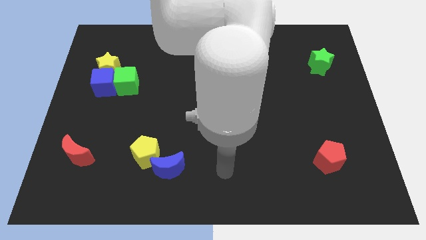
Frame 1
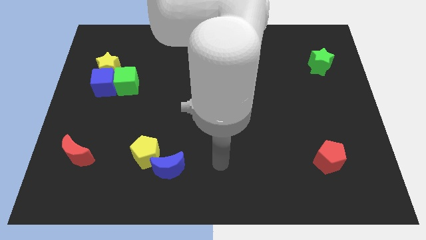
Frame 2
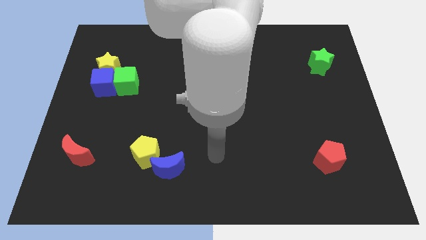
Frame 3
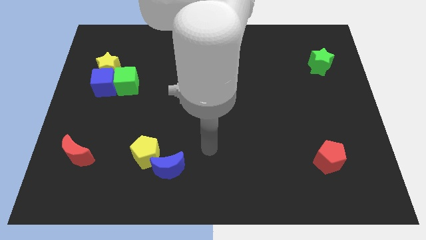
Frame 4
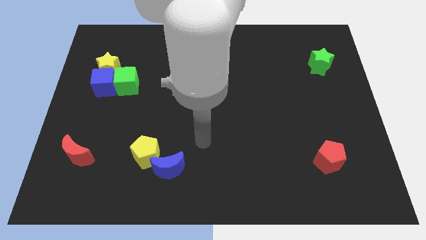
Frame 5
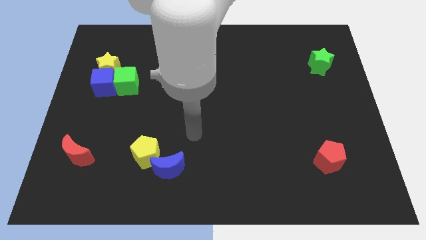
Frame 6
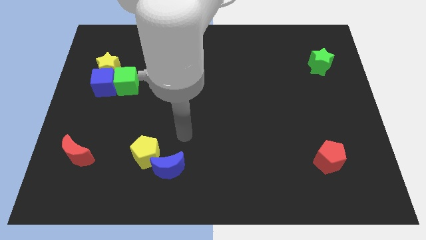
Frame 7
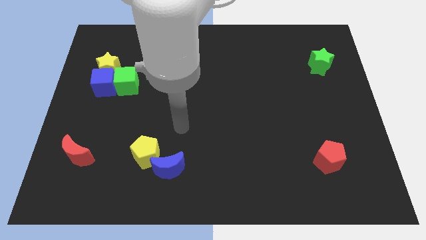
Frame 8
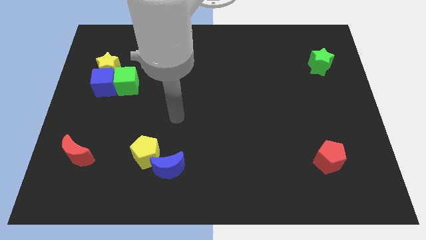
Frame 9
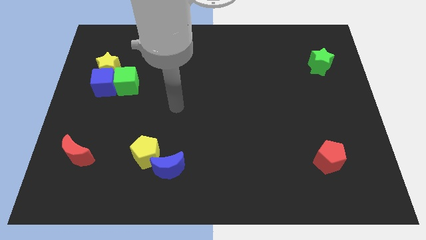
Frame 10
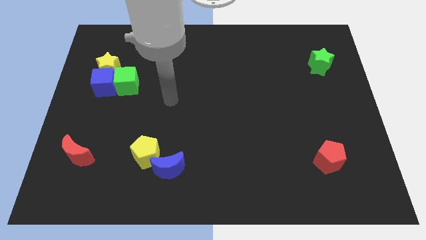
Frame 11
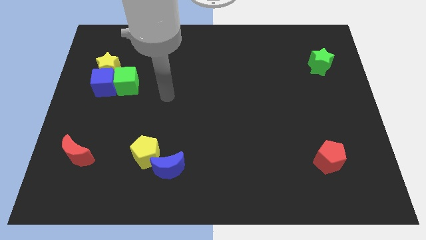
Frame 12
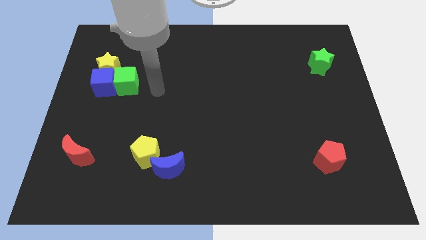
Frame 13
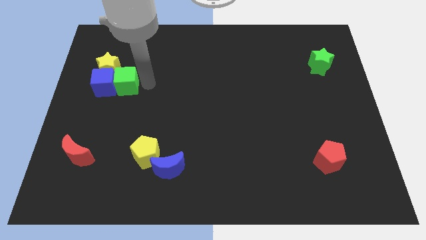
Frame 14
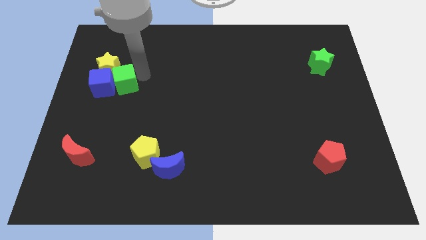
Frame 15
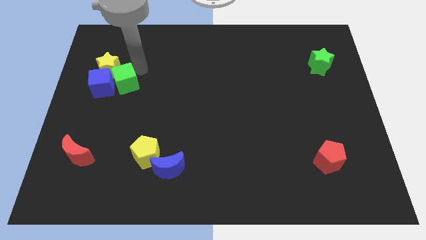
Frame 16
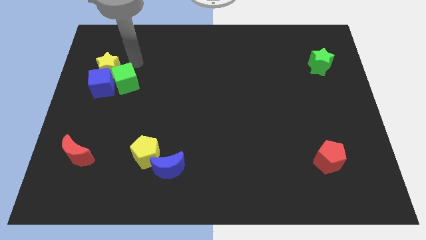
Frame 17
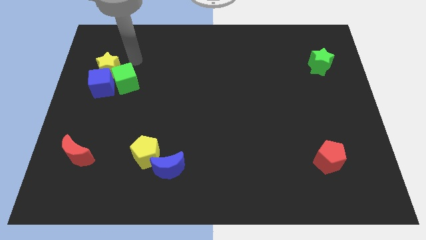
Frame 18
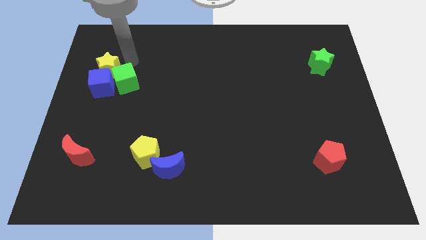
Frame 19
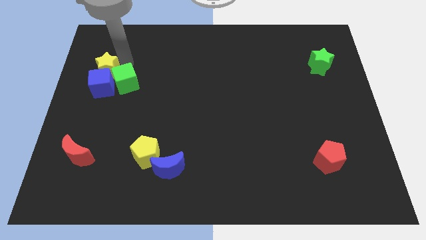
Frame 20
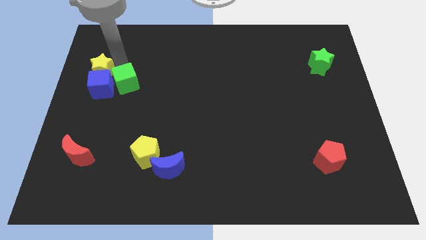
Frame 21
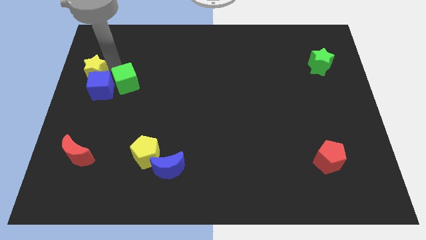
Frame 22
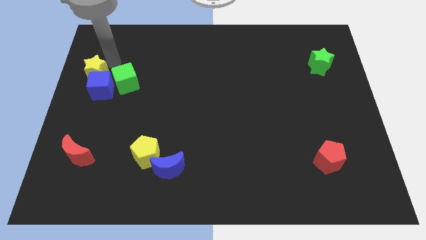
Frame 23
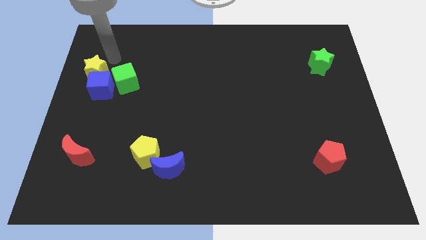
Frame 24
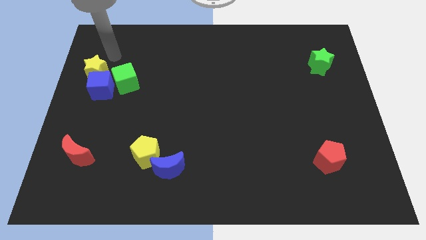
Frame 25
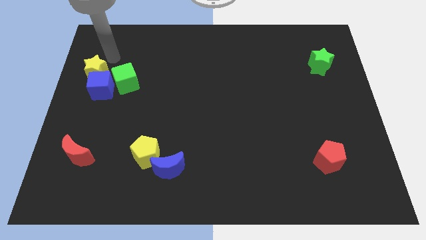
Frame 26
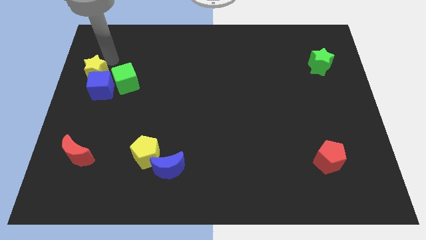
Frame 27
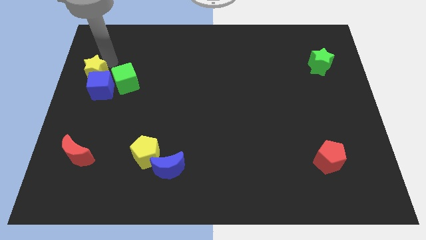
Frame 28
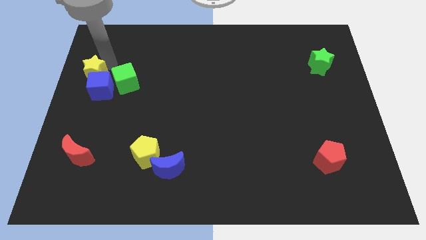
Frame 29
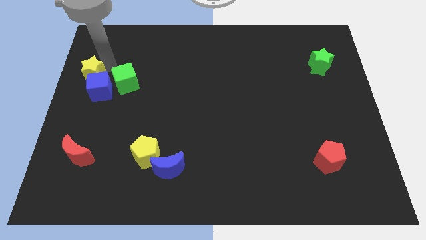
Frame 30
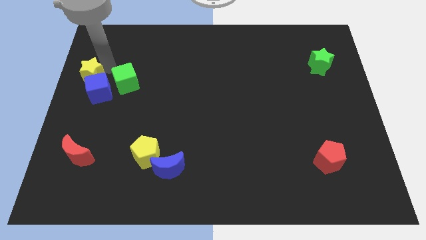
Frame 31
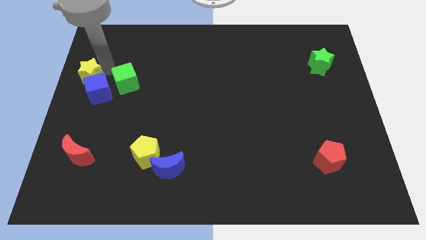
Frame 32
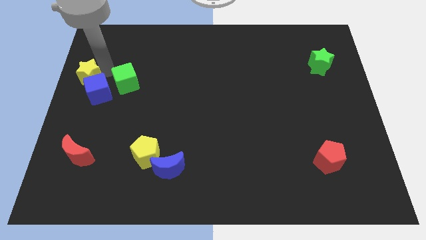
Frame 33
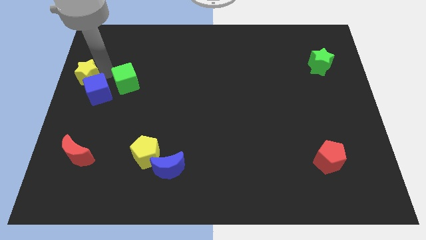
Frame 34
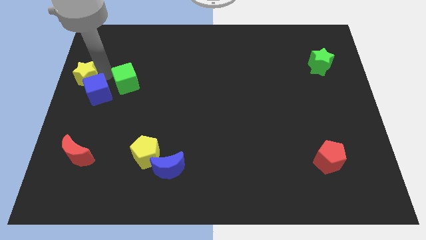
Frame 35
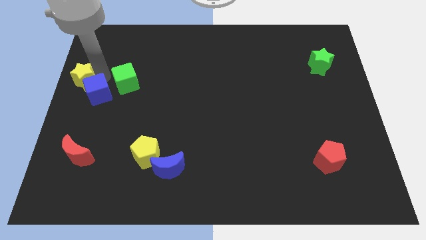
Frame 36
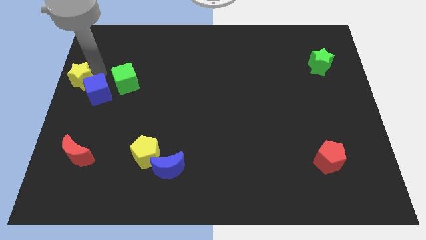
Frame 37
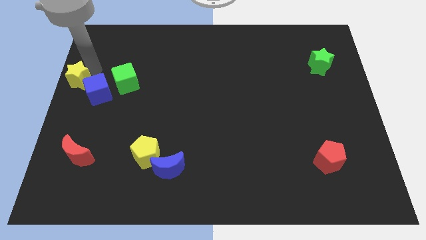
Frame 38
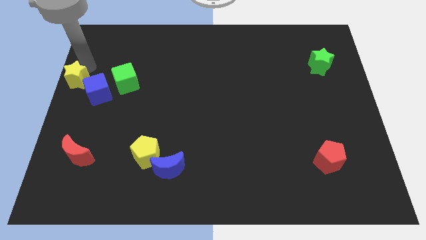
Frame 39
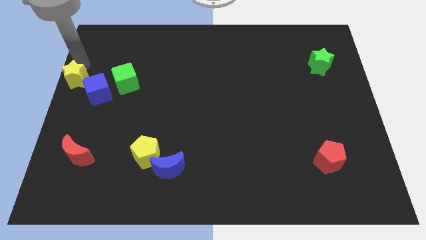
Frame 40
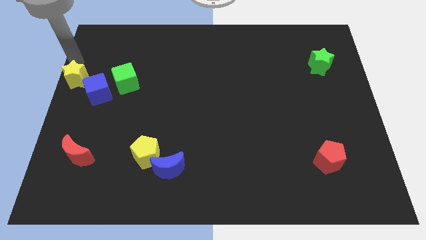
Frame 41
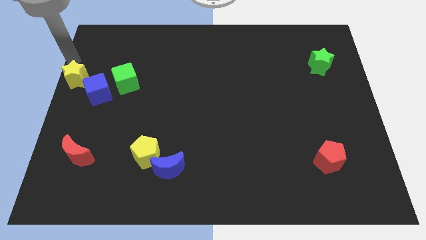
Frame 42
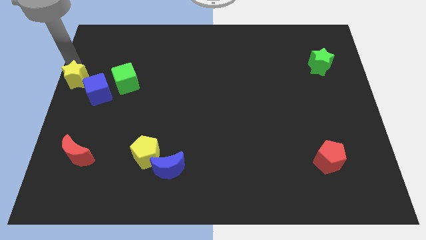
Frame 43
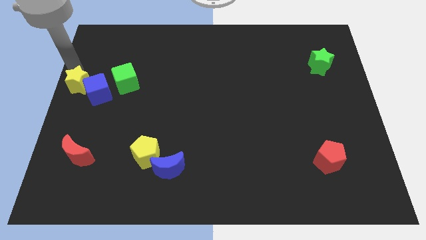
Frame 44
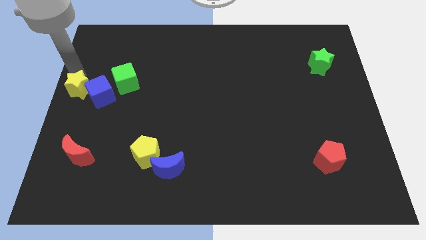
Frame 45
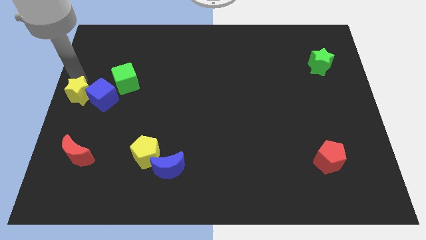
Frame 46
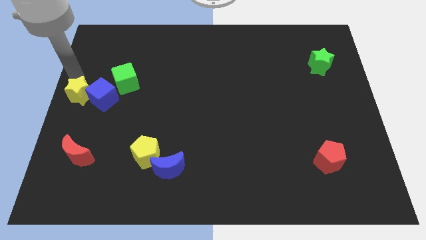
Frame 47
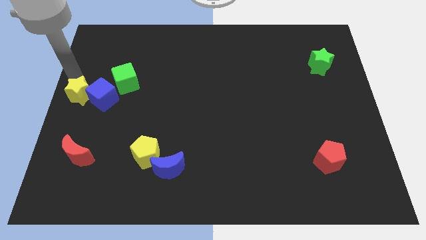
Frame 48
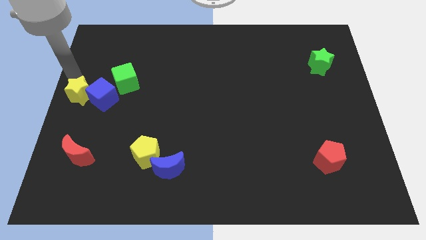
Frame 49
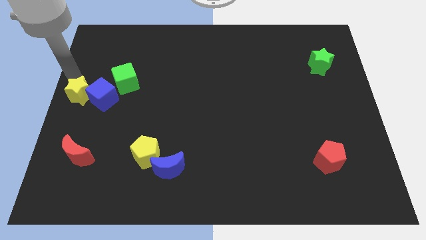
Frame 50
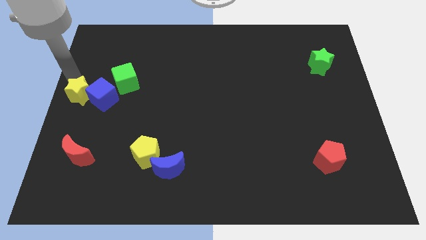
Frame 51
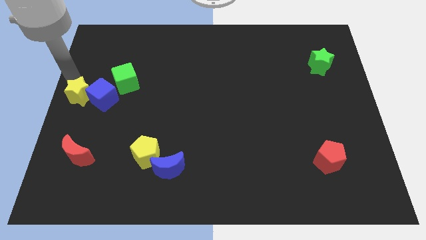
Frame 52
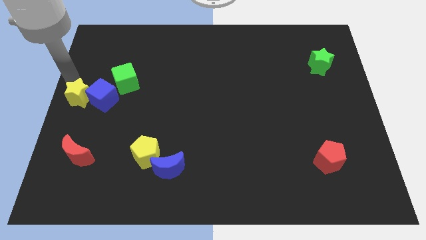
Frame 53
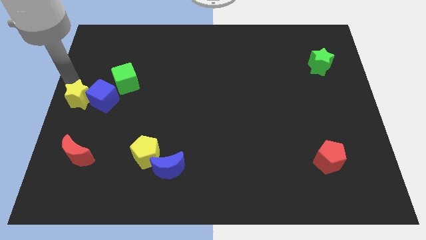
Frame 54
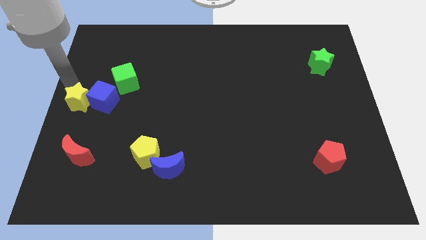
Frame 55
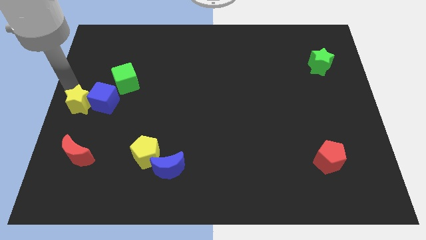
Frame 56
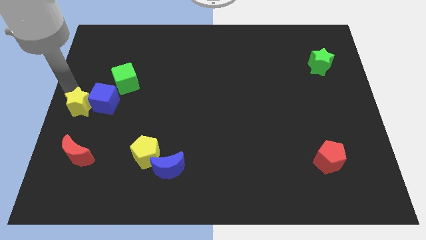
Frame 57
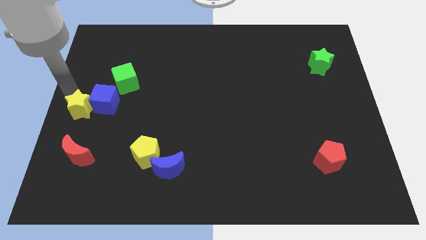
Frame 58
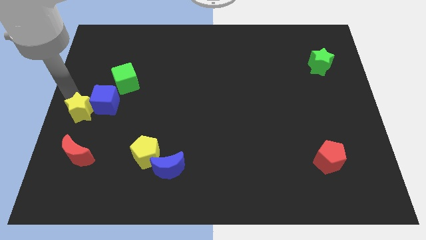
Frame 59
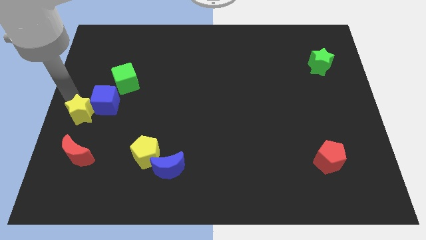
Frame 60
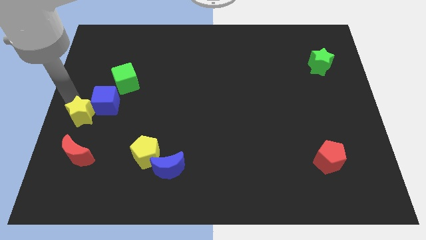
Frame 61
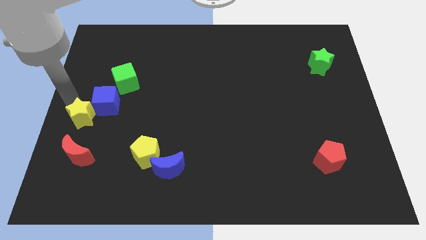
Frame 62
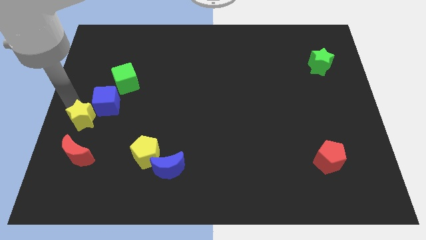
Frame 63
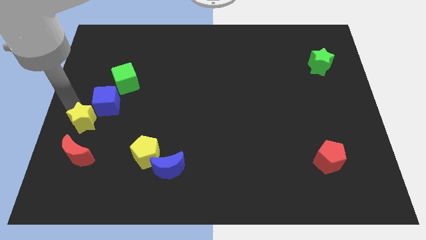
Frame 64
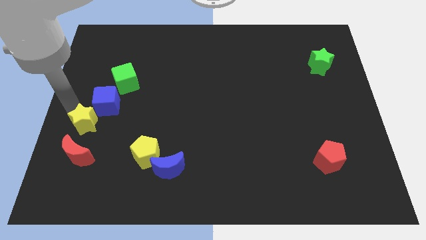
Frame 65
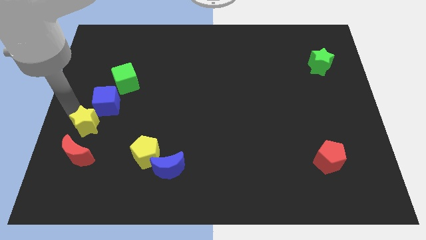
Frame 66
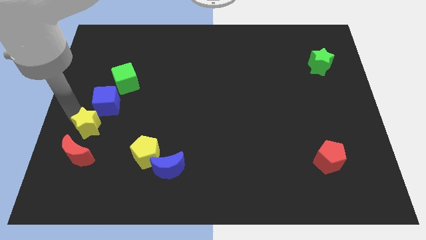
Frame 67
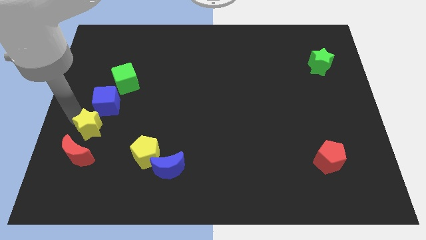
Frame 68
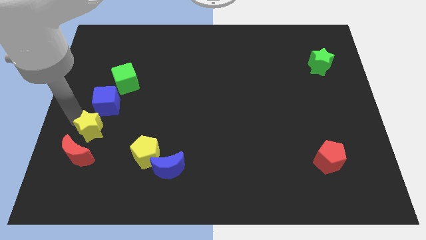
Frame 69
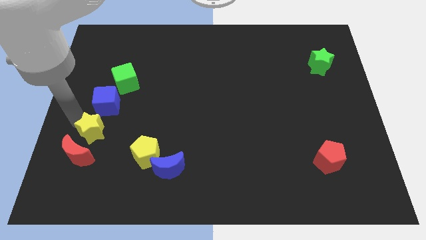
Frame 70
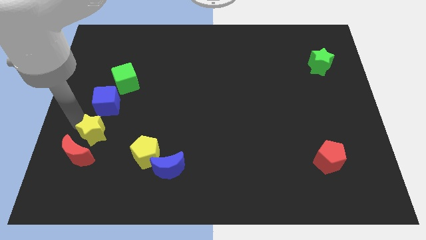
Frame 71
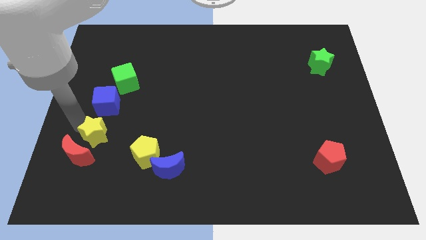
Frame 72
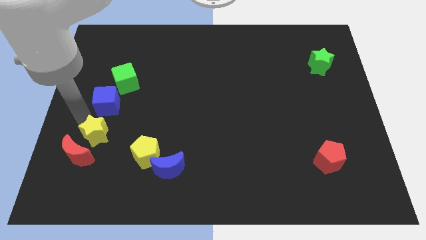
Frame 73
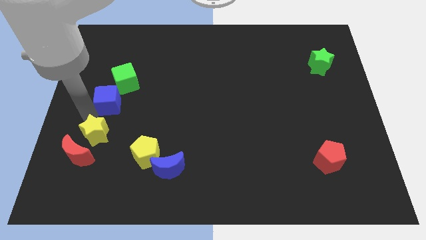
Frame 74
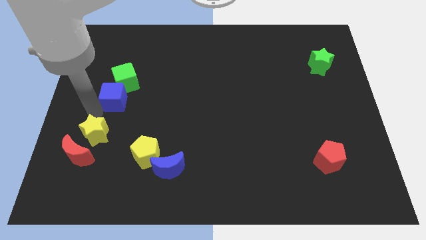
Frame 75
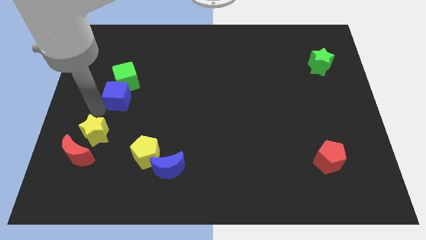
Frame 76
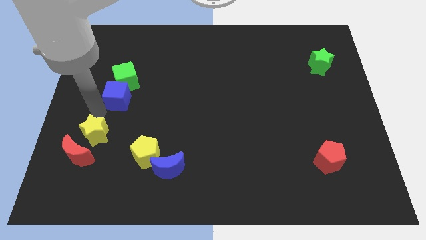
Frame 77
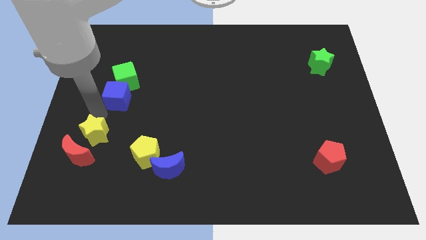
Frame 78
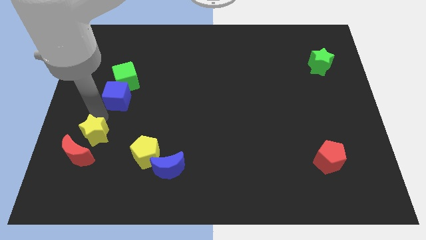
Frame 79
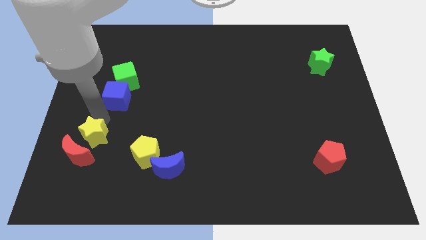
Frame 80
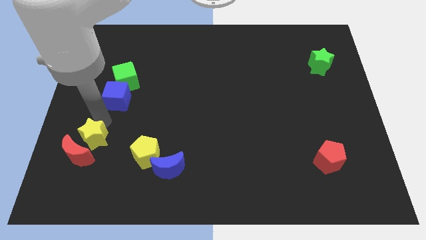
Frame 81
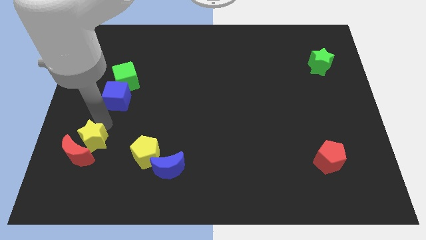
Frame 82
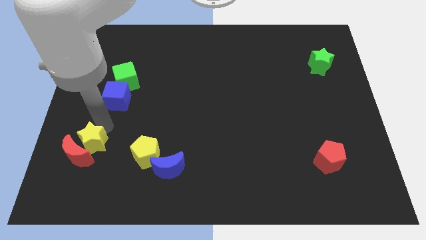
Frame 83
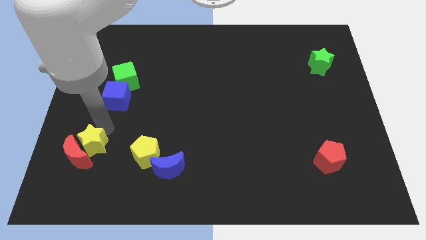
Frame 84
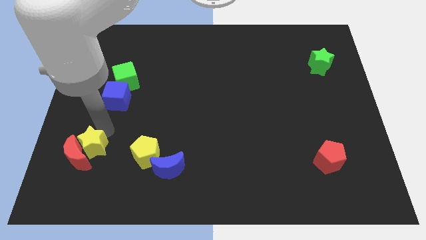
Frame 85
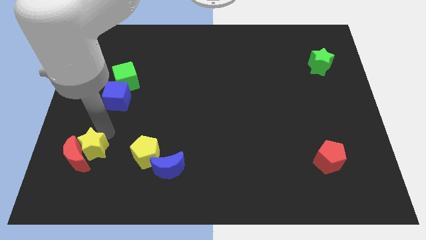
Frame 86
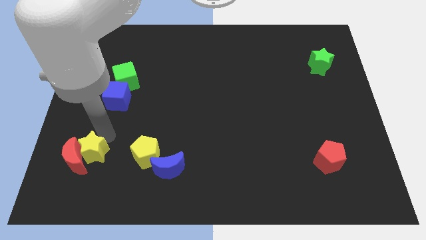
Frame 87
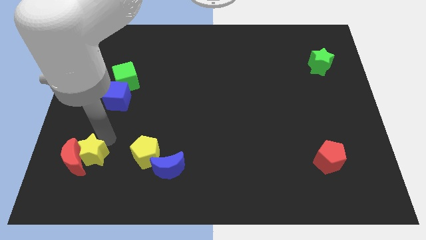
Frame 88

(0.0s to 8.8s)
push the yellow star to the bottom right of the red moon
